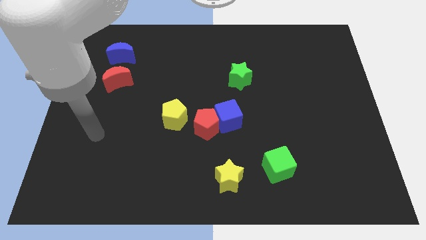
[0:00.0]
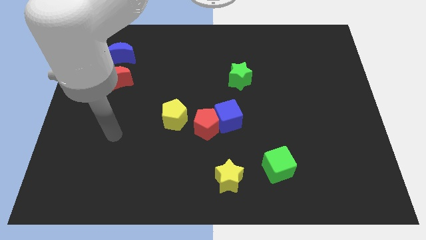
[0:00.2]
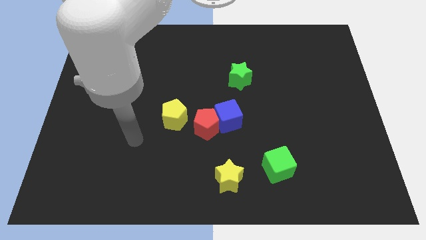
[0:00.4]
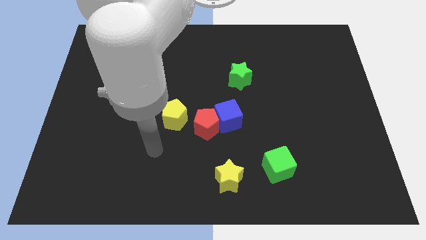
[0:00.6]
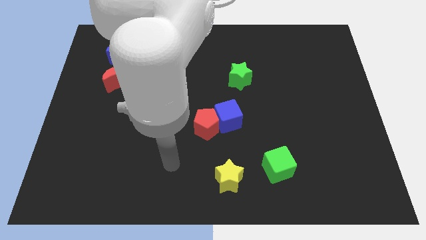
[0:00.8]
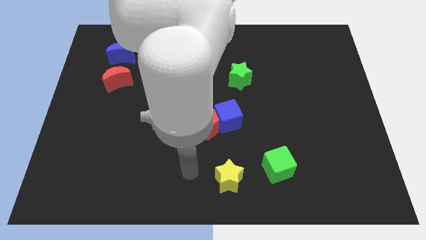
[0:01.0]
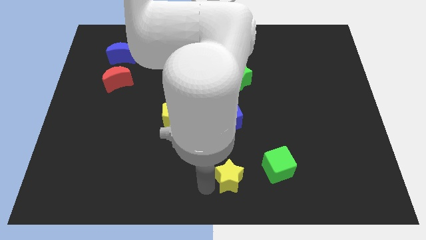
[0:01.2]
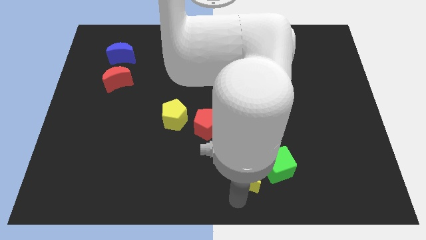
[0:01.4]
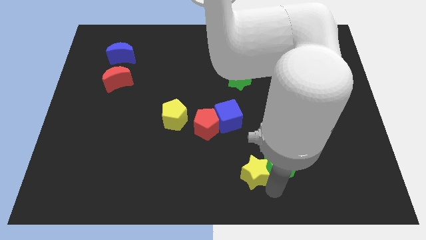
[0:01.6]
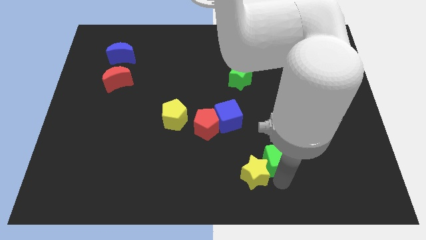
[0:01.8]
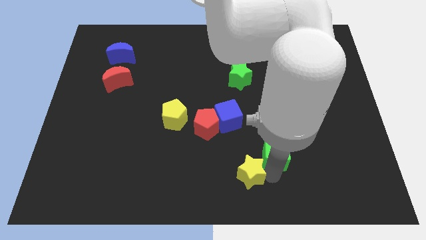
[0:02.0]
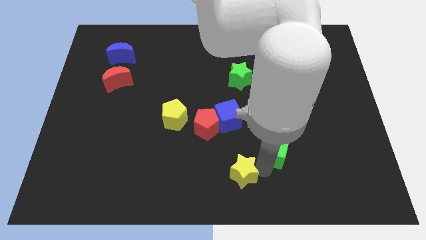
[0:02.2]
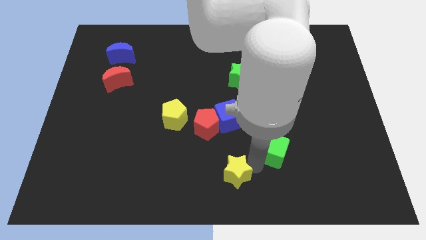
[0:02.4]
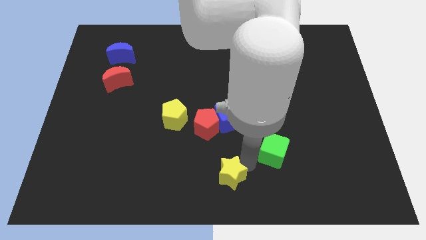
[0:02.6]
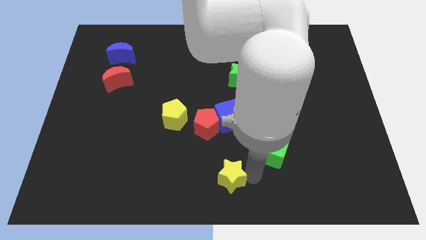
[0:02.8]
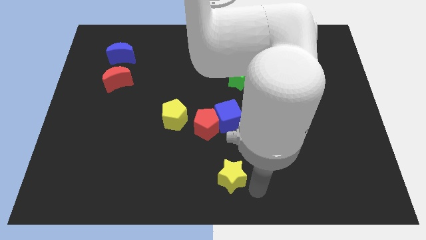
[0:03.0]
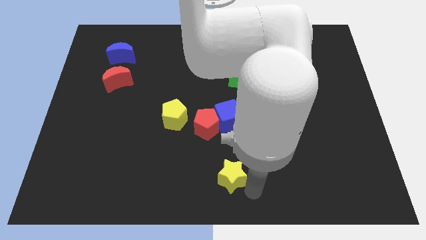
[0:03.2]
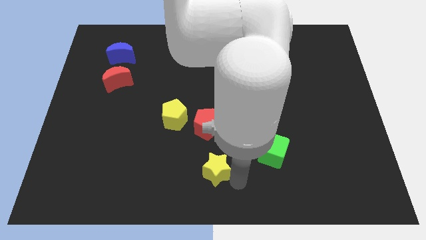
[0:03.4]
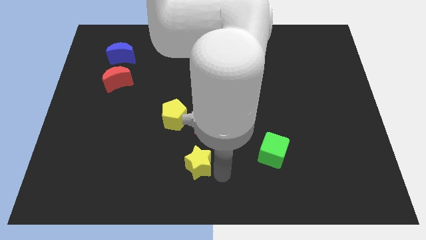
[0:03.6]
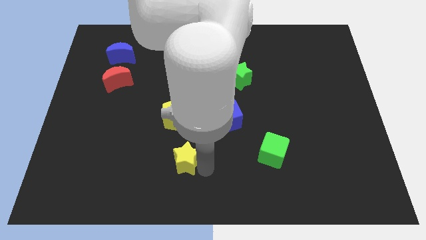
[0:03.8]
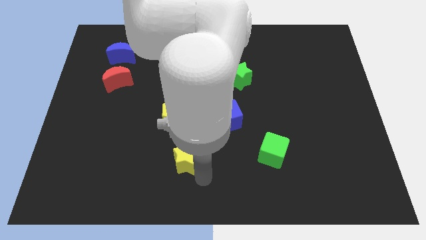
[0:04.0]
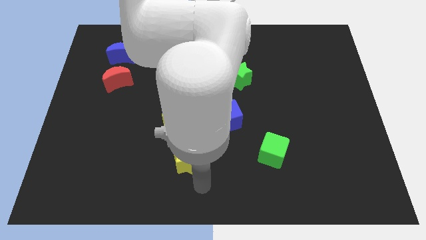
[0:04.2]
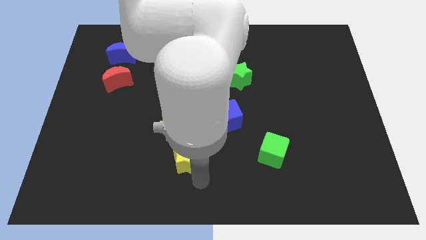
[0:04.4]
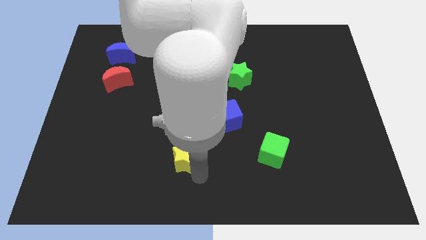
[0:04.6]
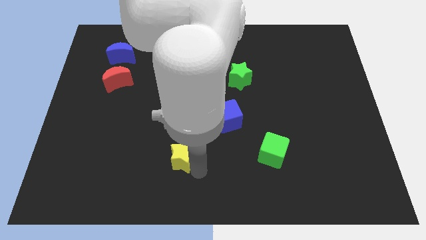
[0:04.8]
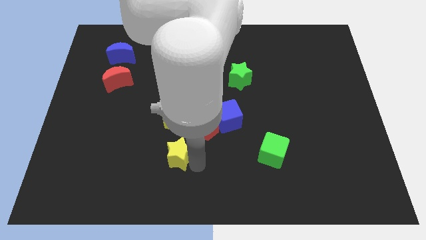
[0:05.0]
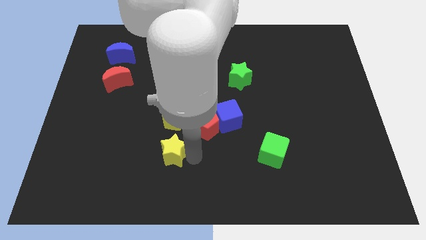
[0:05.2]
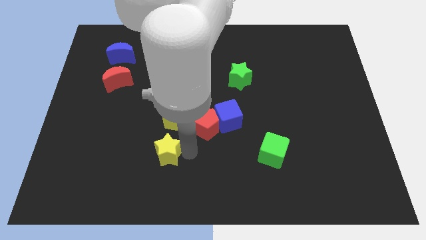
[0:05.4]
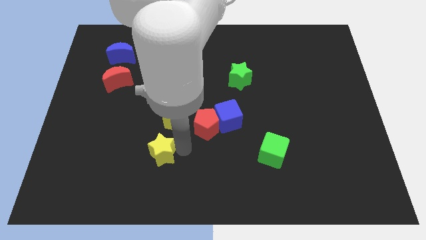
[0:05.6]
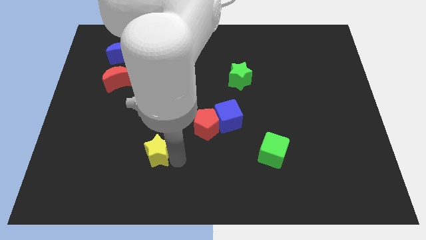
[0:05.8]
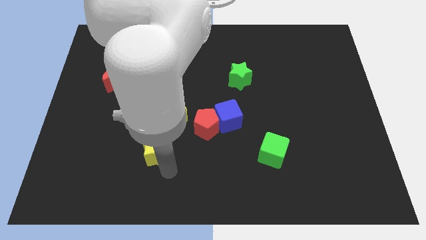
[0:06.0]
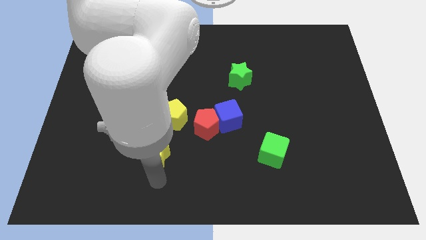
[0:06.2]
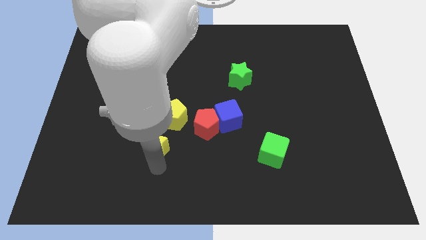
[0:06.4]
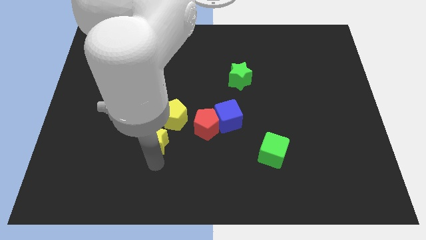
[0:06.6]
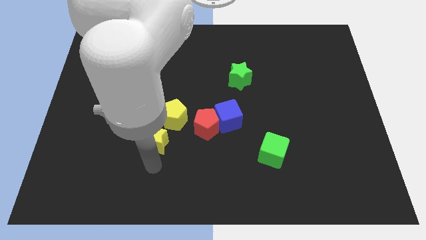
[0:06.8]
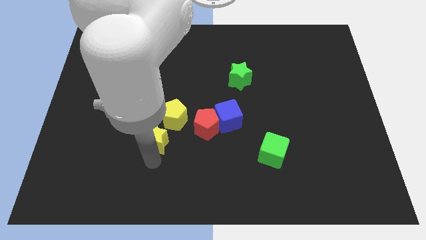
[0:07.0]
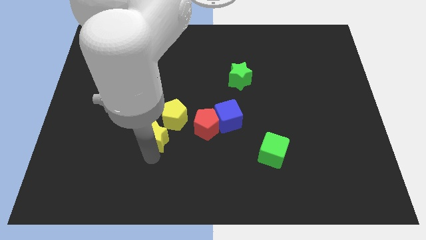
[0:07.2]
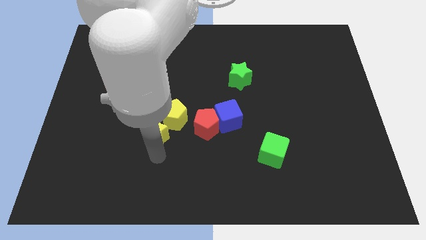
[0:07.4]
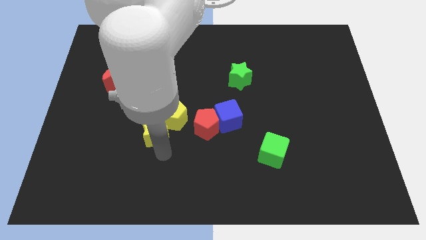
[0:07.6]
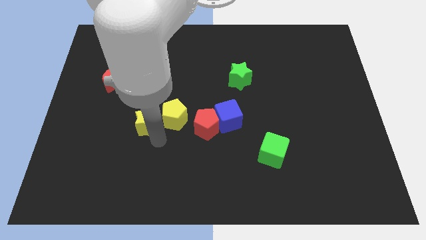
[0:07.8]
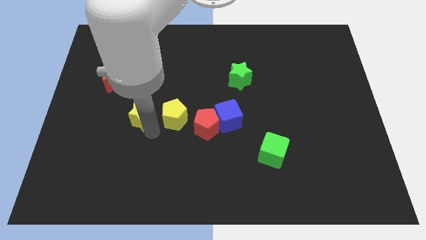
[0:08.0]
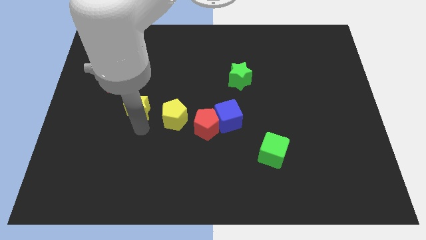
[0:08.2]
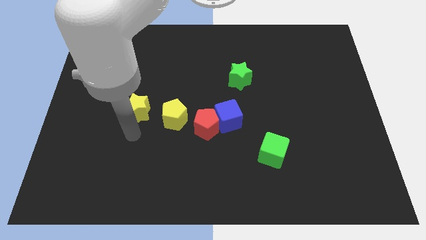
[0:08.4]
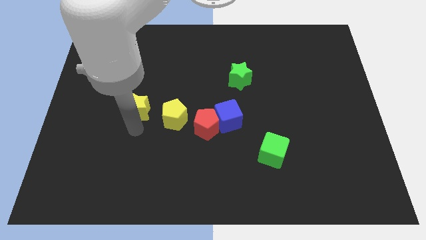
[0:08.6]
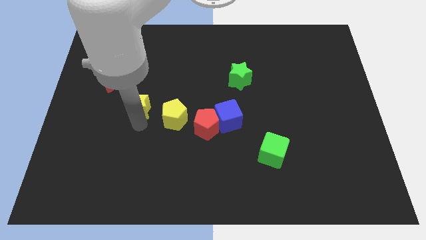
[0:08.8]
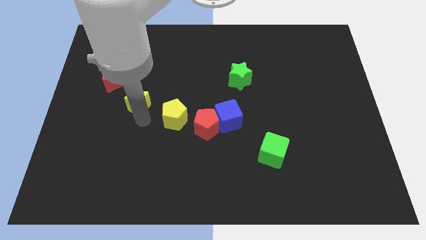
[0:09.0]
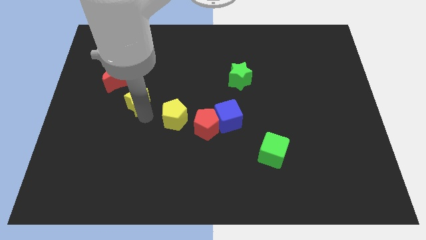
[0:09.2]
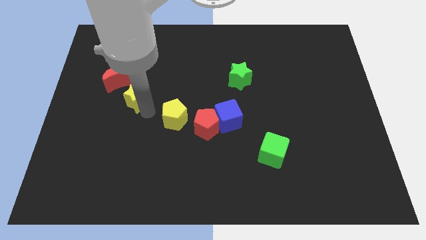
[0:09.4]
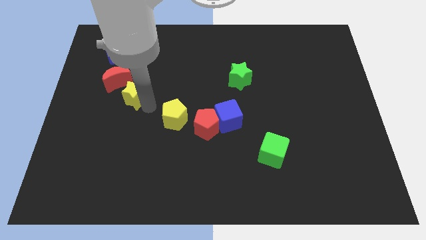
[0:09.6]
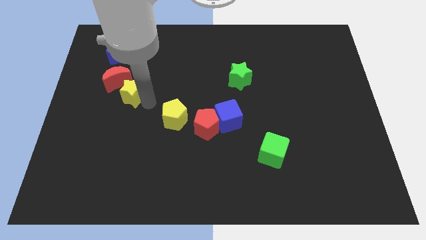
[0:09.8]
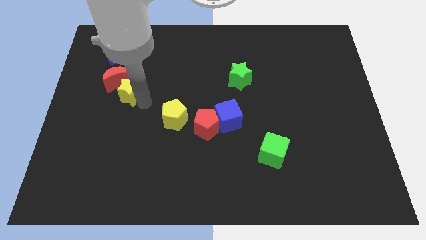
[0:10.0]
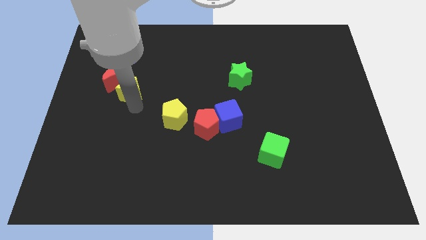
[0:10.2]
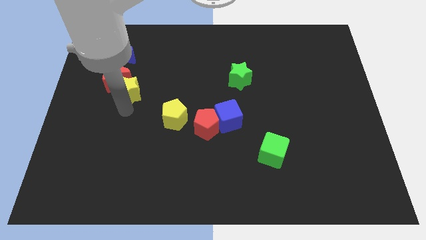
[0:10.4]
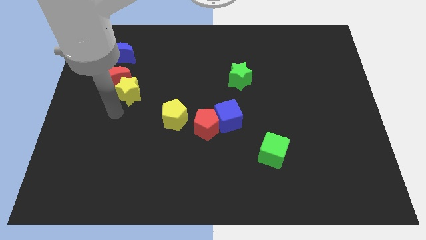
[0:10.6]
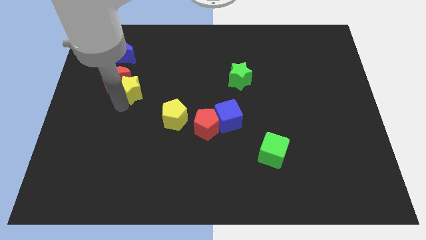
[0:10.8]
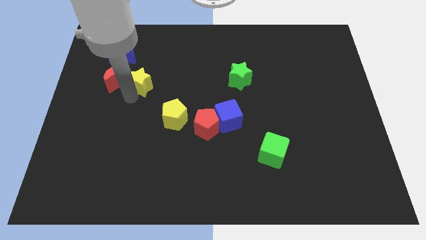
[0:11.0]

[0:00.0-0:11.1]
put the yellow star diagonally down and to the right of the blue moon

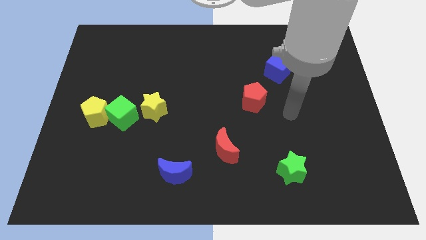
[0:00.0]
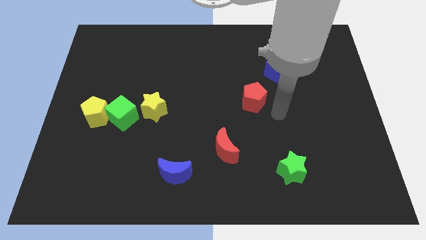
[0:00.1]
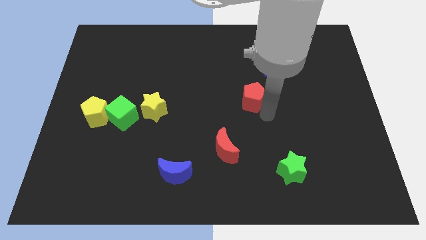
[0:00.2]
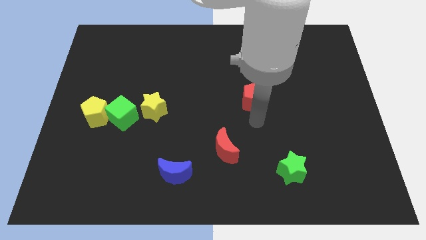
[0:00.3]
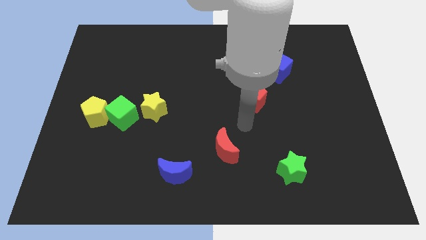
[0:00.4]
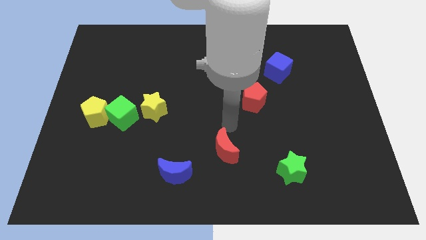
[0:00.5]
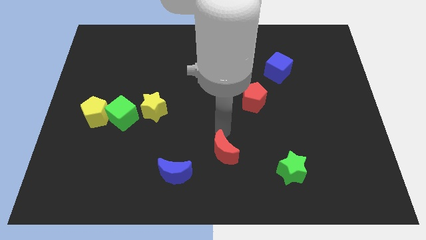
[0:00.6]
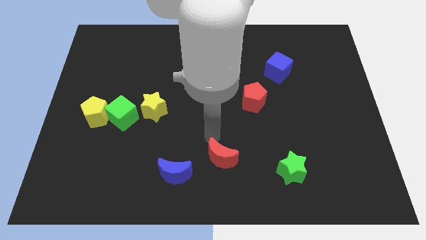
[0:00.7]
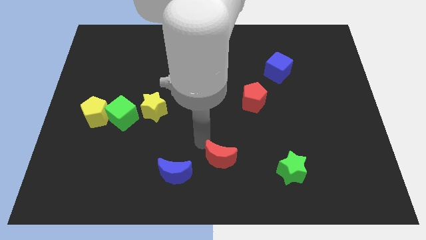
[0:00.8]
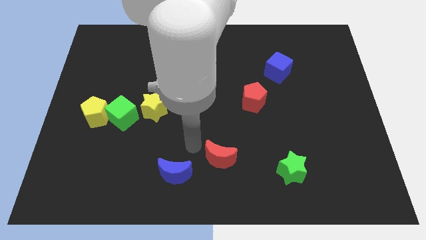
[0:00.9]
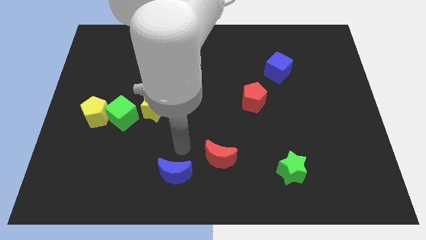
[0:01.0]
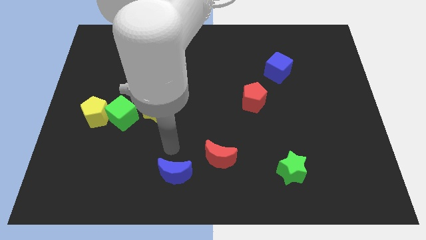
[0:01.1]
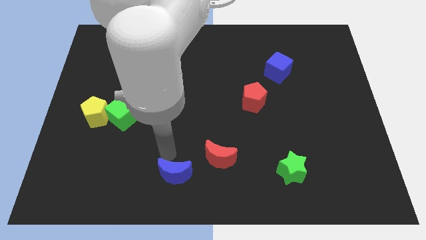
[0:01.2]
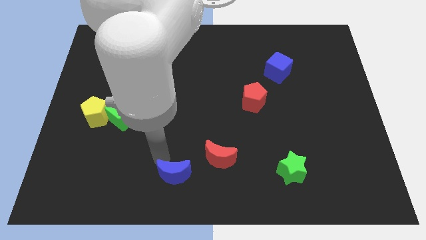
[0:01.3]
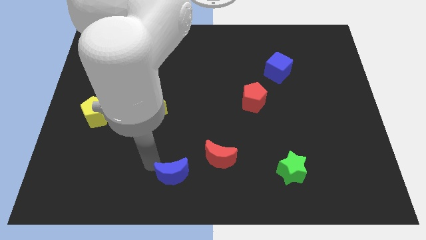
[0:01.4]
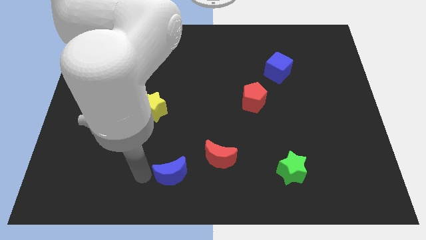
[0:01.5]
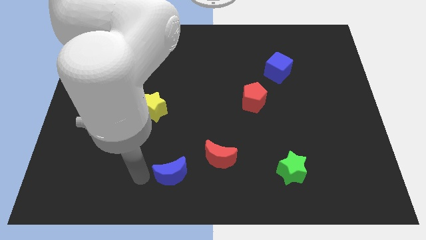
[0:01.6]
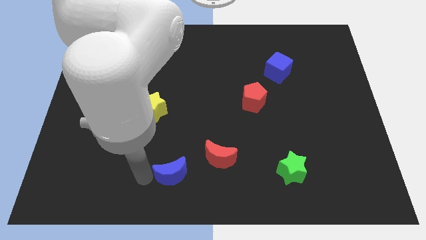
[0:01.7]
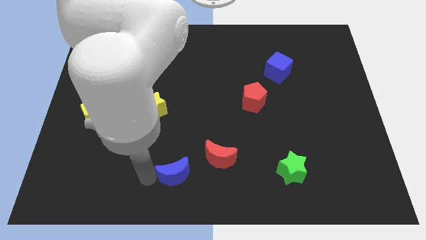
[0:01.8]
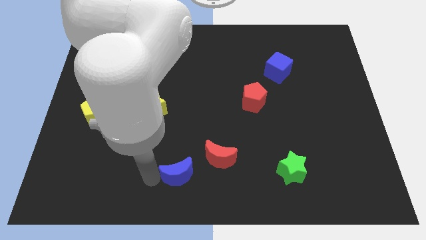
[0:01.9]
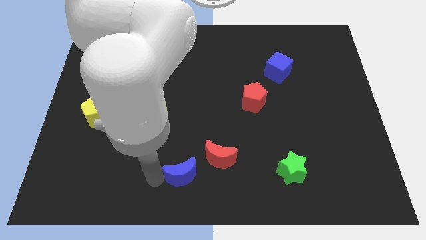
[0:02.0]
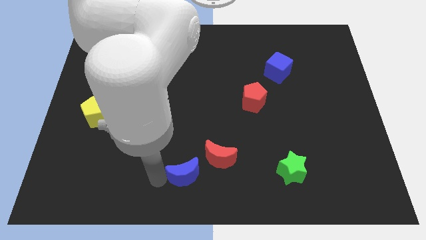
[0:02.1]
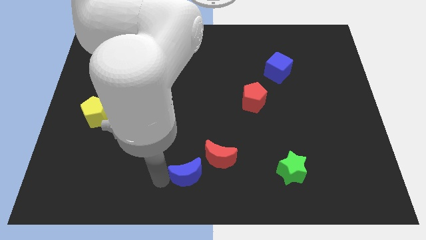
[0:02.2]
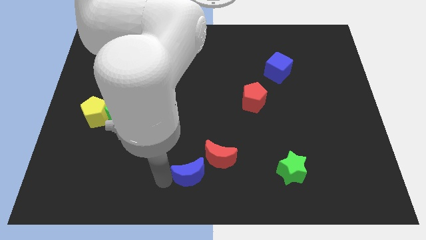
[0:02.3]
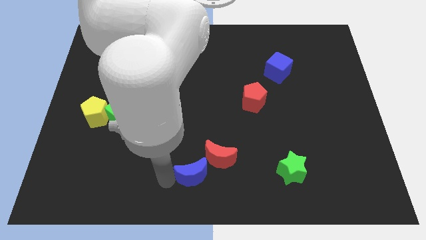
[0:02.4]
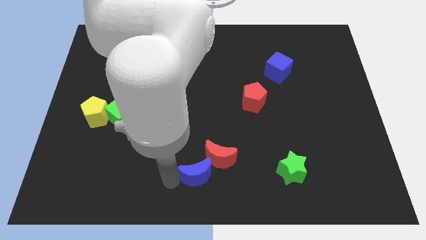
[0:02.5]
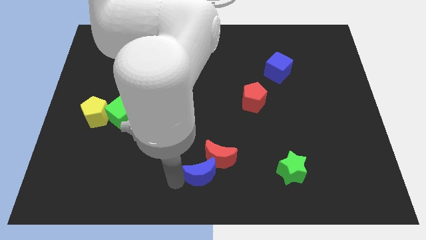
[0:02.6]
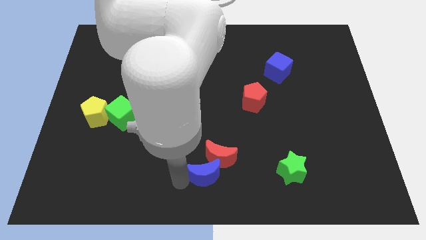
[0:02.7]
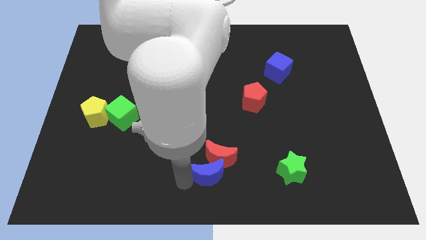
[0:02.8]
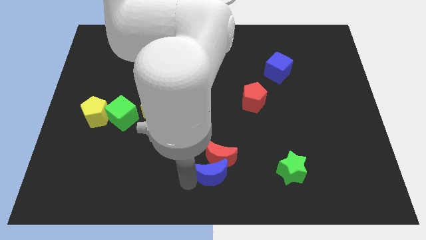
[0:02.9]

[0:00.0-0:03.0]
move the blue moon to the left of the green star
